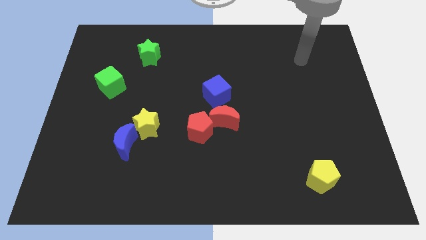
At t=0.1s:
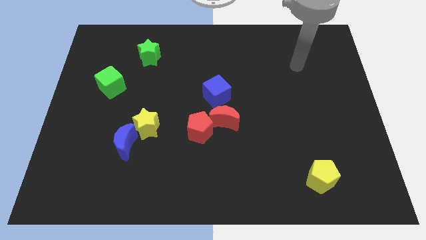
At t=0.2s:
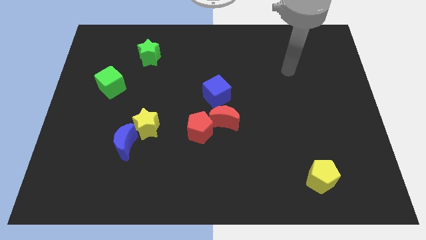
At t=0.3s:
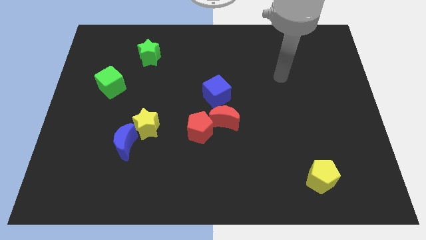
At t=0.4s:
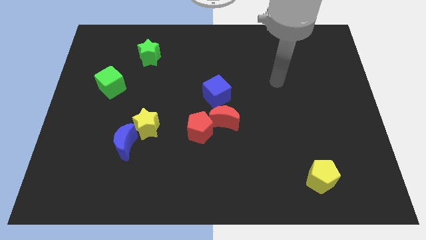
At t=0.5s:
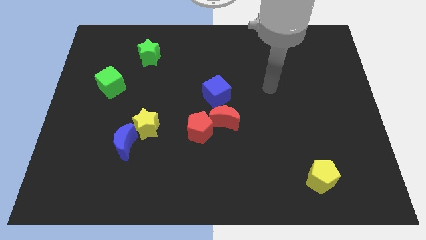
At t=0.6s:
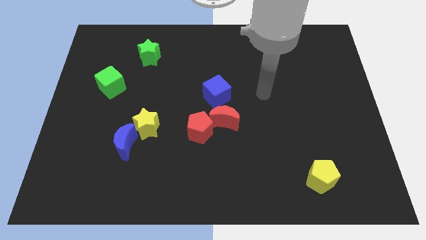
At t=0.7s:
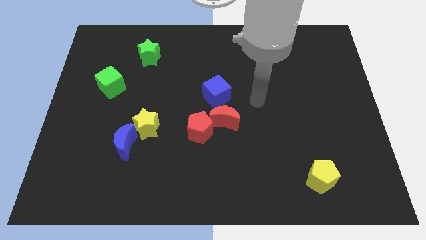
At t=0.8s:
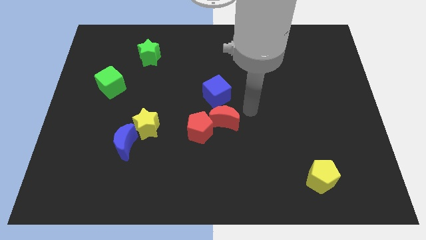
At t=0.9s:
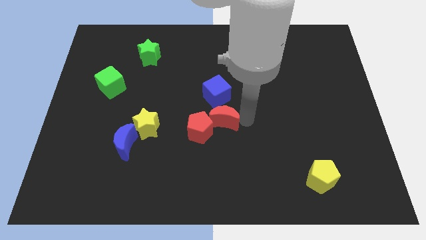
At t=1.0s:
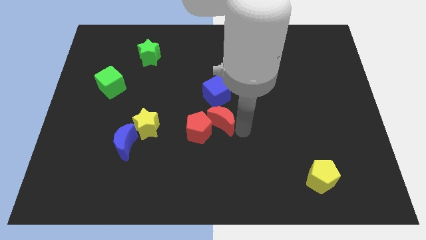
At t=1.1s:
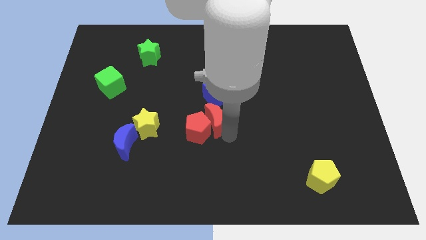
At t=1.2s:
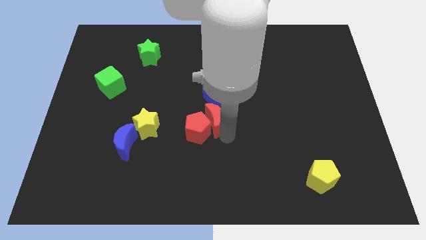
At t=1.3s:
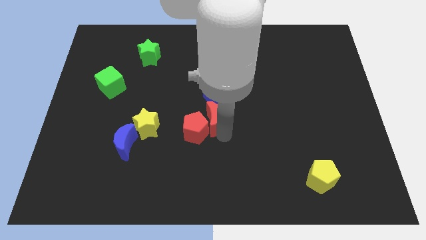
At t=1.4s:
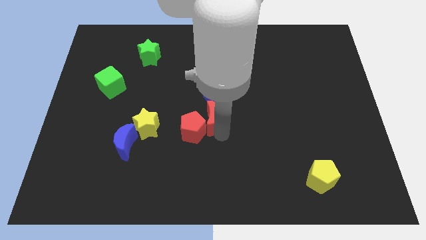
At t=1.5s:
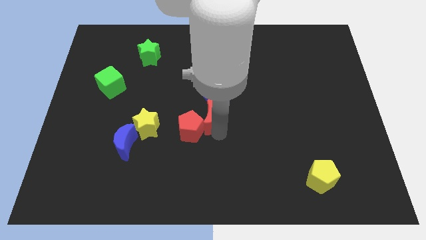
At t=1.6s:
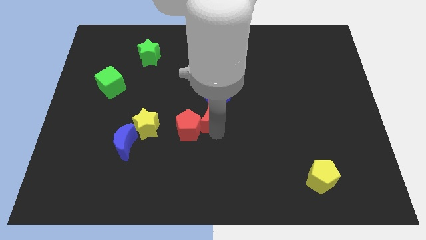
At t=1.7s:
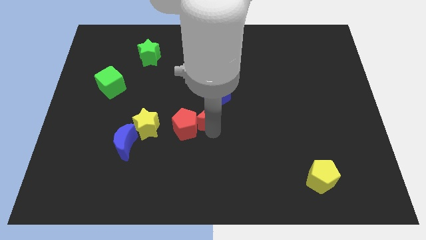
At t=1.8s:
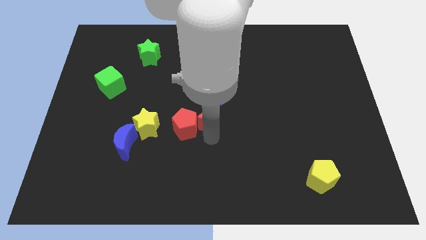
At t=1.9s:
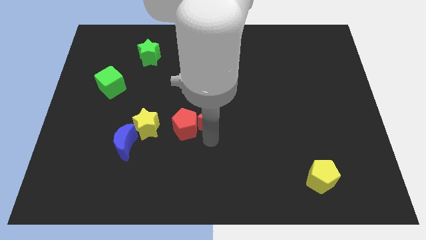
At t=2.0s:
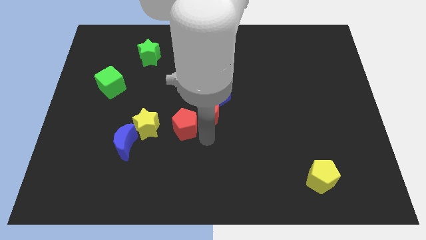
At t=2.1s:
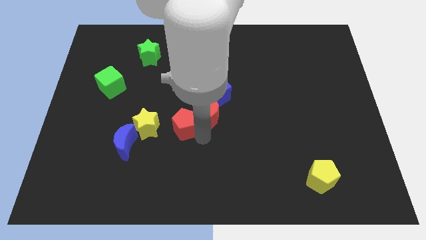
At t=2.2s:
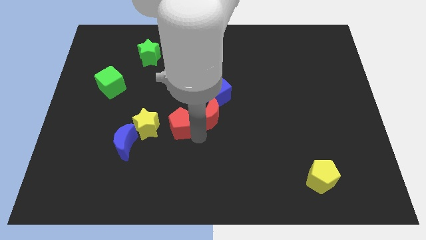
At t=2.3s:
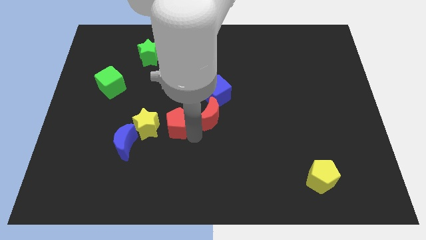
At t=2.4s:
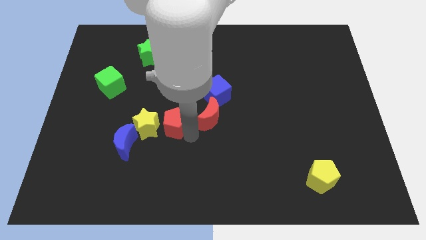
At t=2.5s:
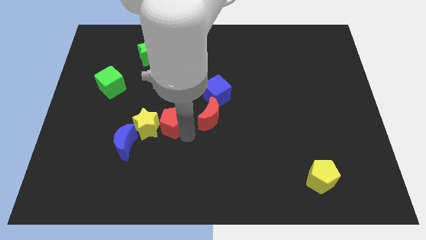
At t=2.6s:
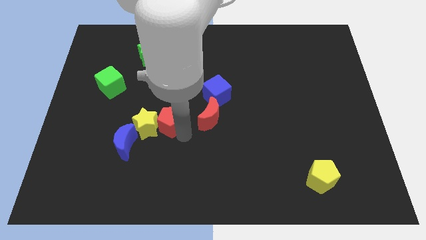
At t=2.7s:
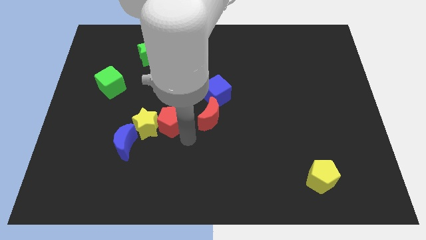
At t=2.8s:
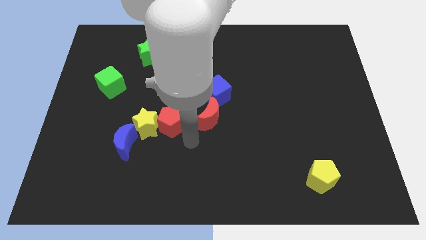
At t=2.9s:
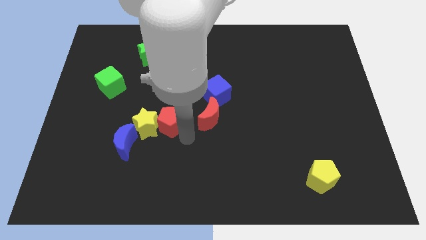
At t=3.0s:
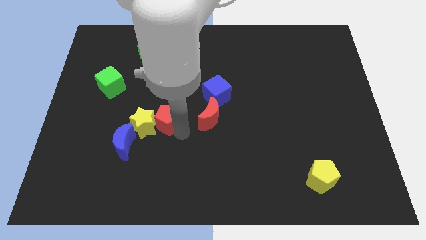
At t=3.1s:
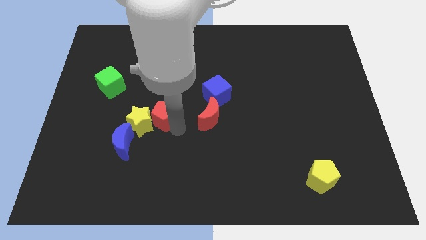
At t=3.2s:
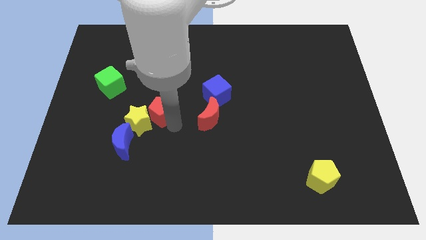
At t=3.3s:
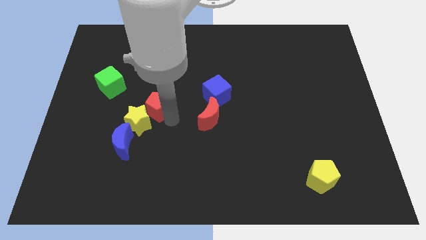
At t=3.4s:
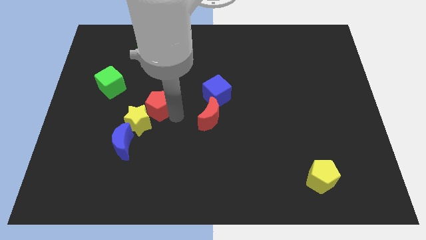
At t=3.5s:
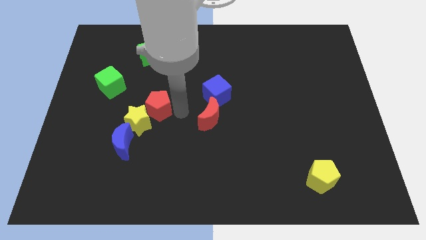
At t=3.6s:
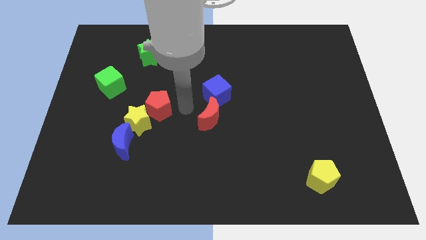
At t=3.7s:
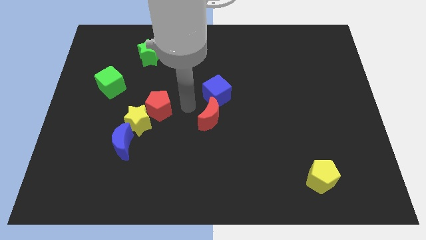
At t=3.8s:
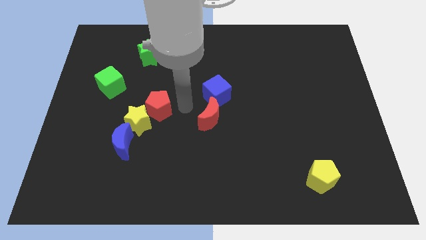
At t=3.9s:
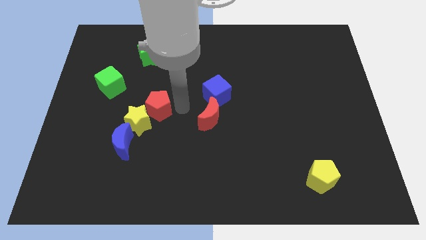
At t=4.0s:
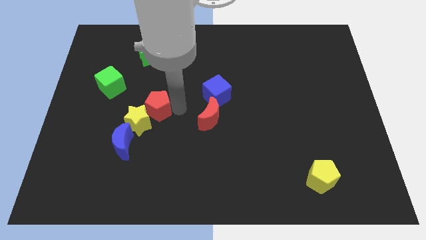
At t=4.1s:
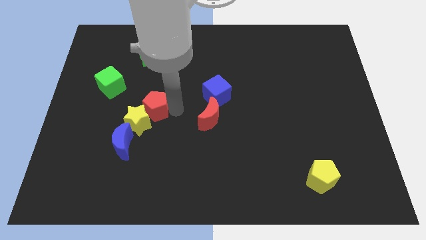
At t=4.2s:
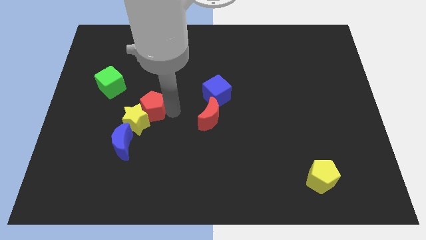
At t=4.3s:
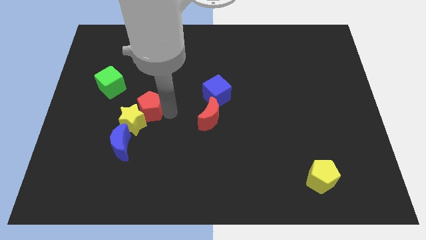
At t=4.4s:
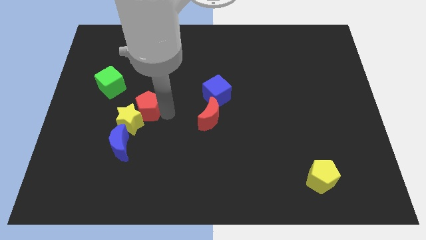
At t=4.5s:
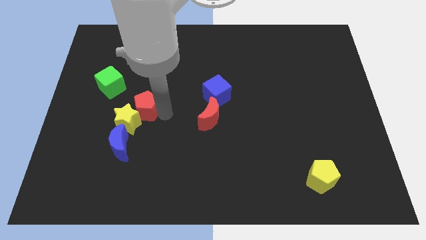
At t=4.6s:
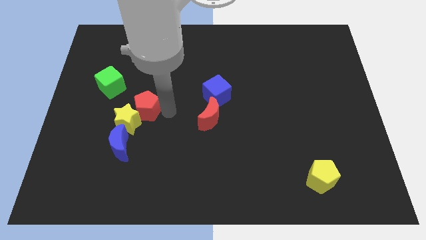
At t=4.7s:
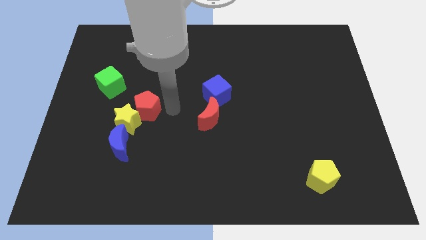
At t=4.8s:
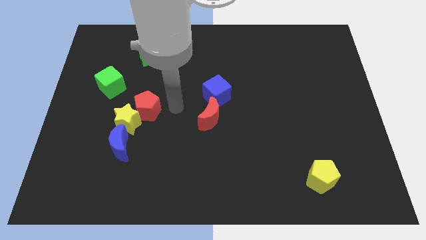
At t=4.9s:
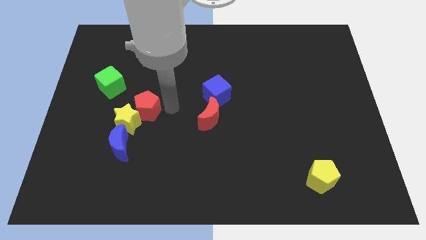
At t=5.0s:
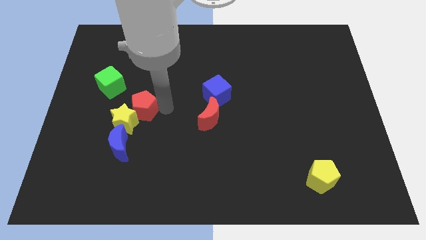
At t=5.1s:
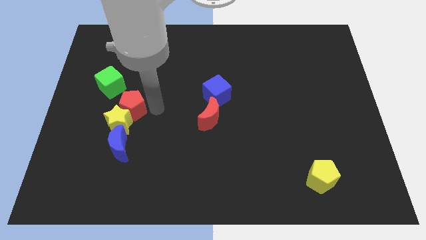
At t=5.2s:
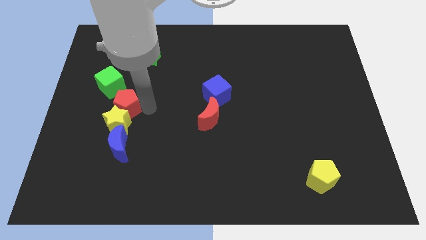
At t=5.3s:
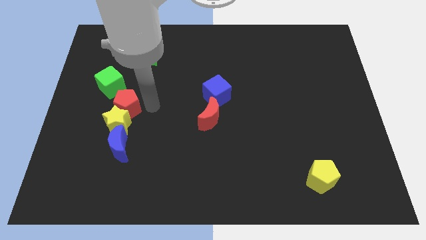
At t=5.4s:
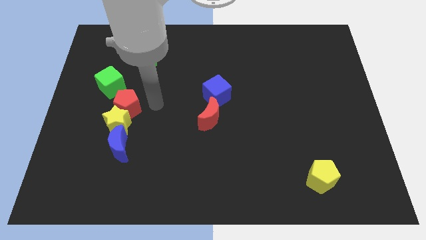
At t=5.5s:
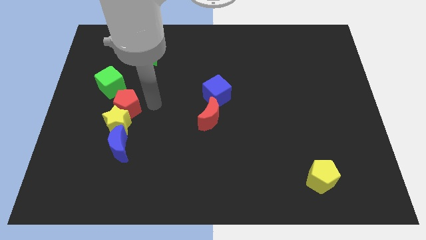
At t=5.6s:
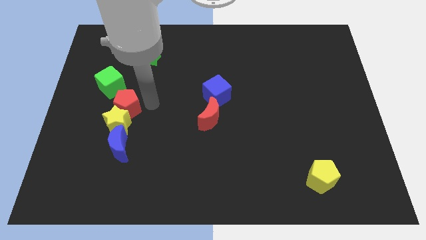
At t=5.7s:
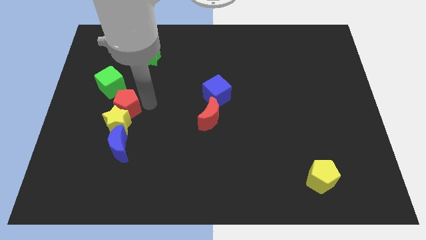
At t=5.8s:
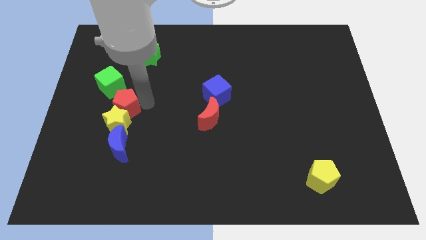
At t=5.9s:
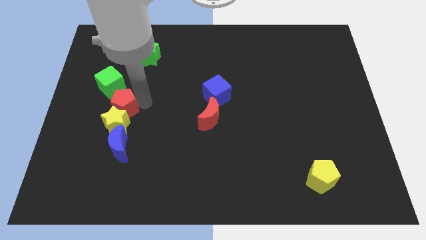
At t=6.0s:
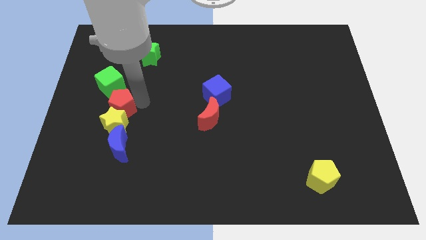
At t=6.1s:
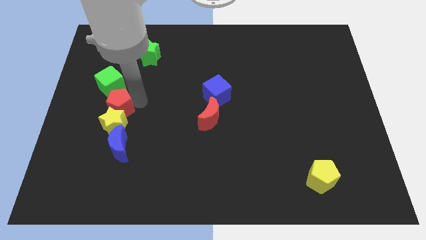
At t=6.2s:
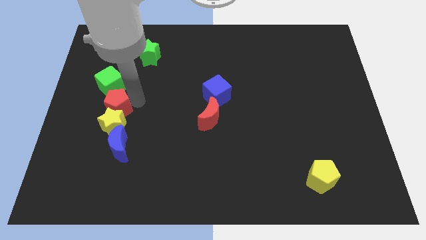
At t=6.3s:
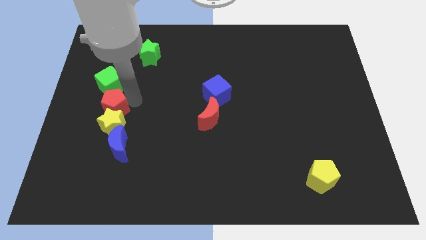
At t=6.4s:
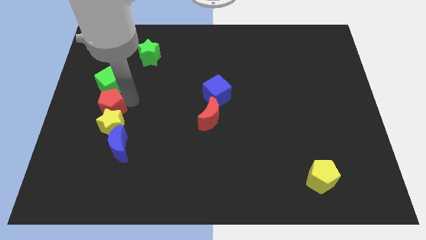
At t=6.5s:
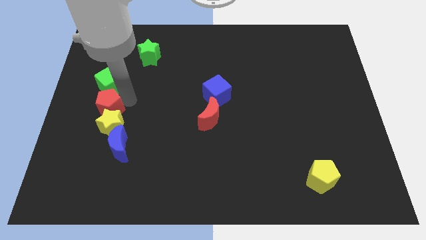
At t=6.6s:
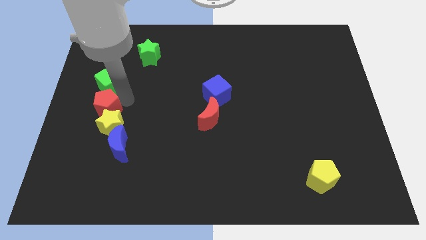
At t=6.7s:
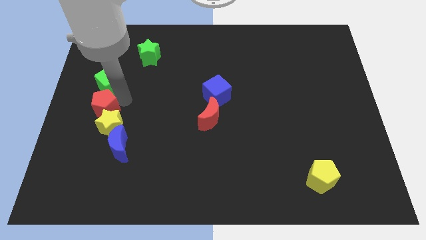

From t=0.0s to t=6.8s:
put the red pentagon to the left side of the board

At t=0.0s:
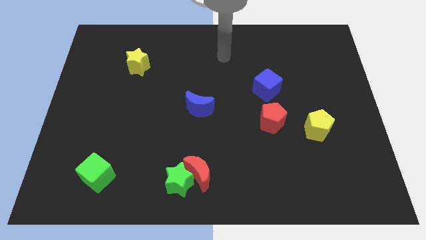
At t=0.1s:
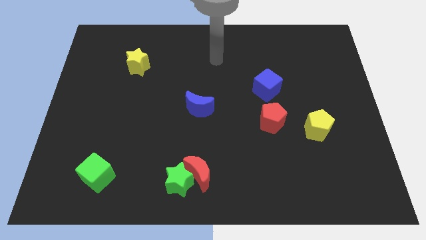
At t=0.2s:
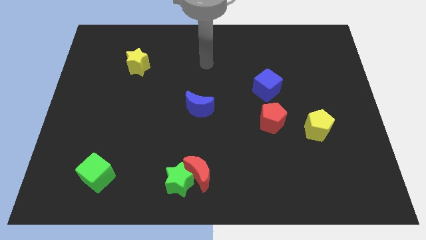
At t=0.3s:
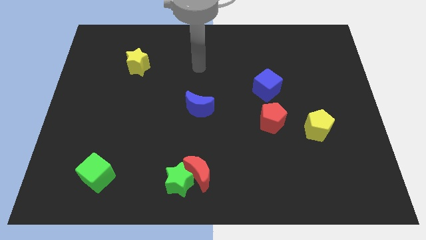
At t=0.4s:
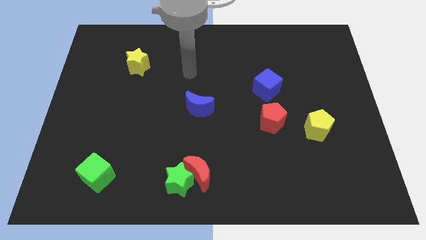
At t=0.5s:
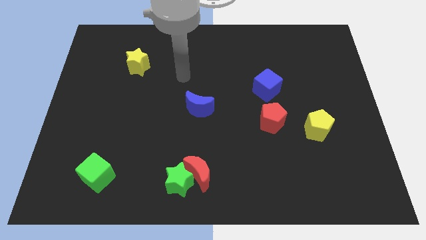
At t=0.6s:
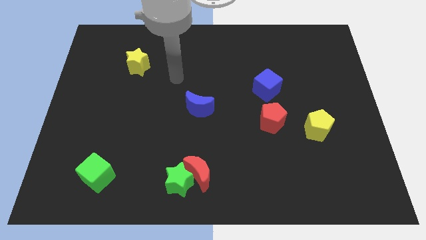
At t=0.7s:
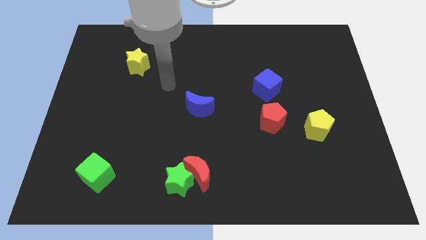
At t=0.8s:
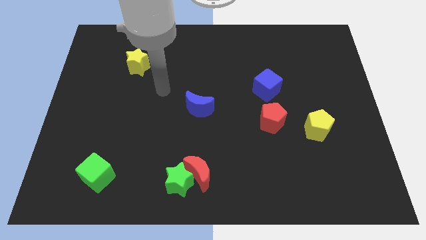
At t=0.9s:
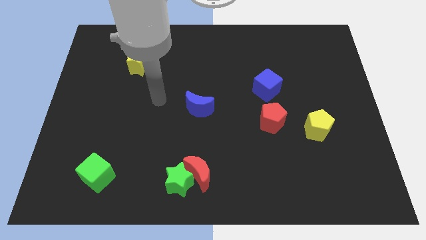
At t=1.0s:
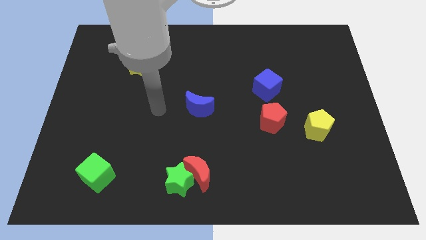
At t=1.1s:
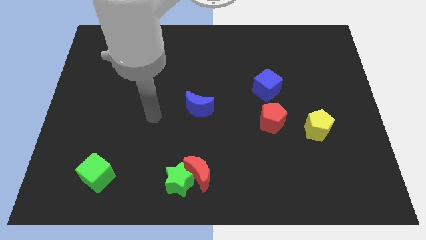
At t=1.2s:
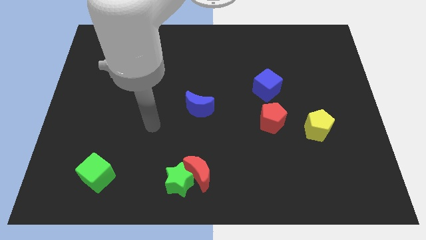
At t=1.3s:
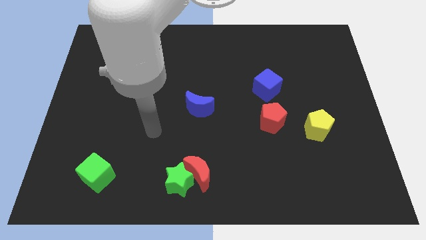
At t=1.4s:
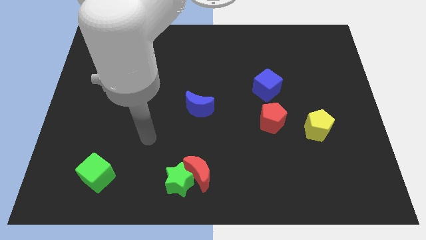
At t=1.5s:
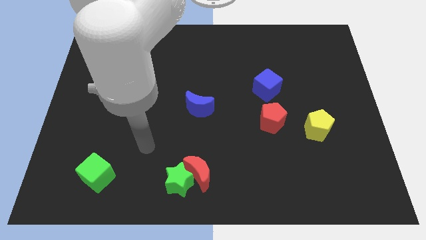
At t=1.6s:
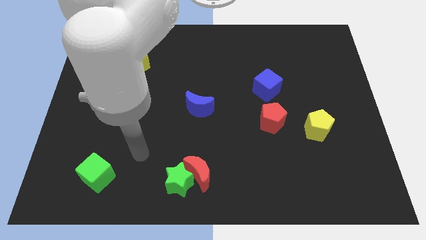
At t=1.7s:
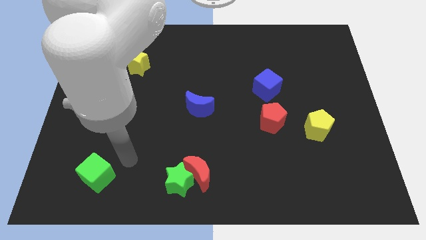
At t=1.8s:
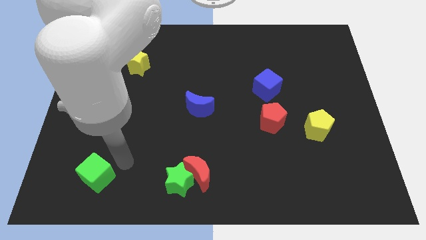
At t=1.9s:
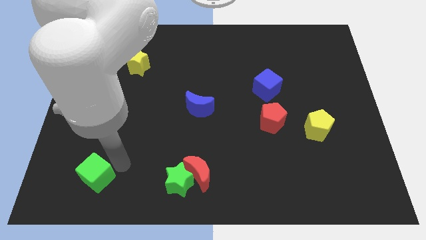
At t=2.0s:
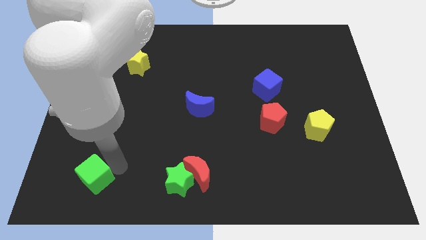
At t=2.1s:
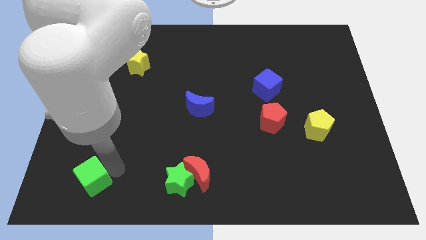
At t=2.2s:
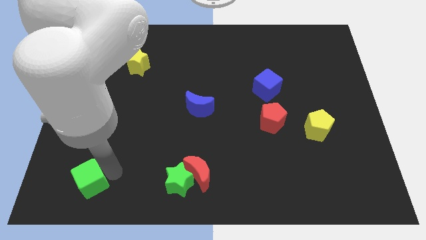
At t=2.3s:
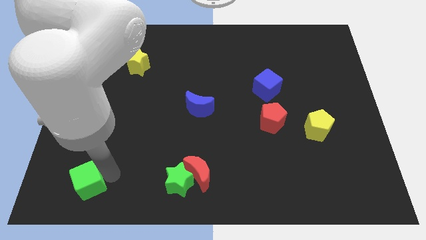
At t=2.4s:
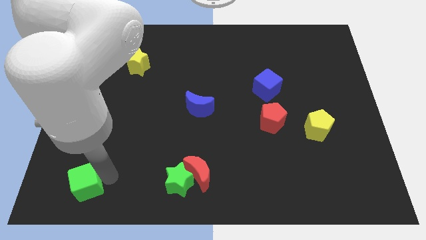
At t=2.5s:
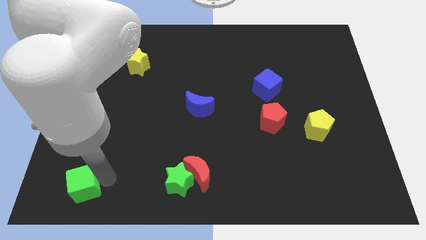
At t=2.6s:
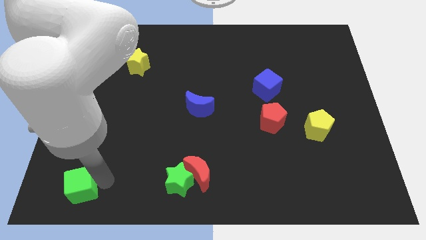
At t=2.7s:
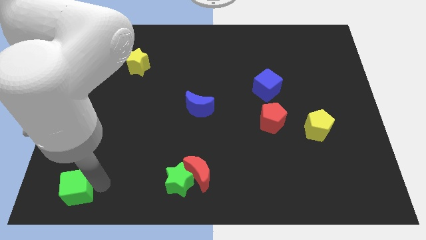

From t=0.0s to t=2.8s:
slide the green cube to the bottom left of the board
